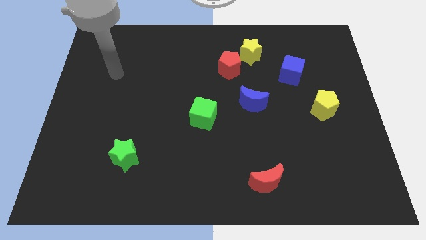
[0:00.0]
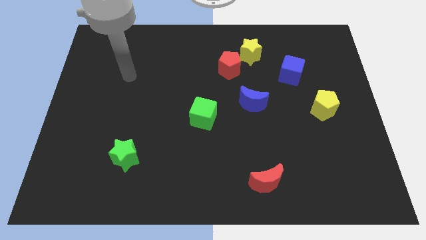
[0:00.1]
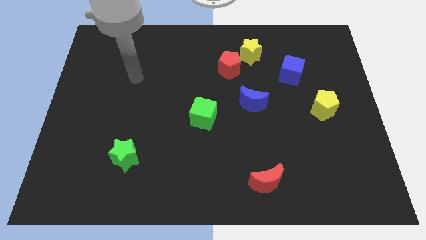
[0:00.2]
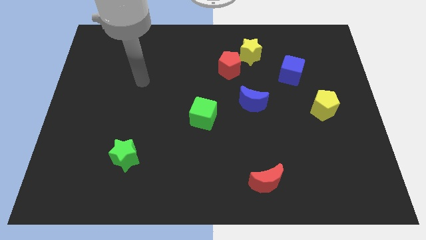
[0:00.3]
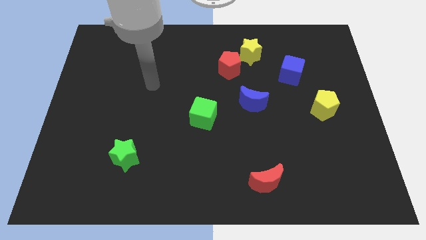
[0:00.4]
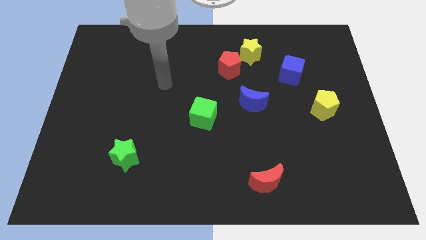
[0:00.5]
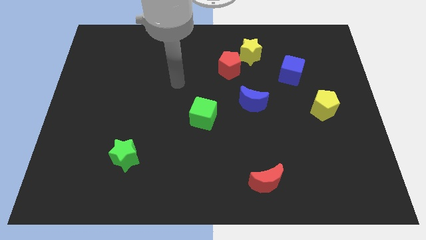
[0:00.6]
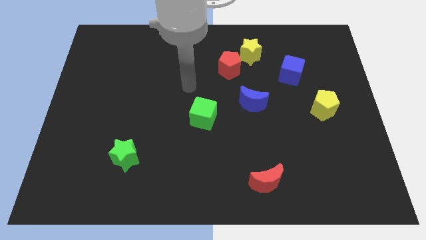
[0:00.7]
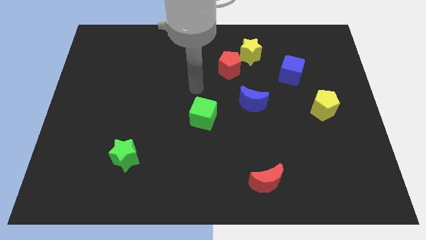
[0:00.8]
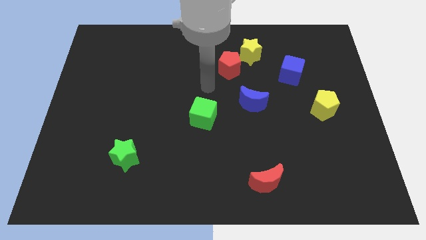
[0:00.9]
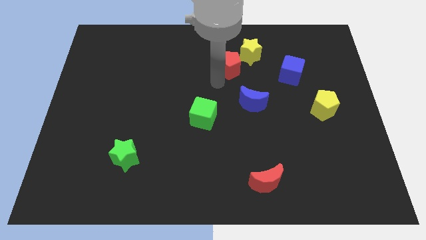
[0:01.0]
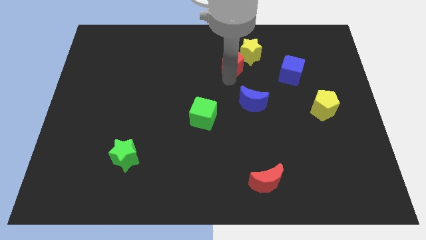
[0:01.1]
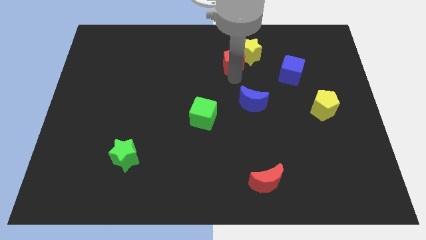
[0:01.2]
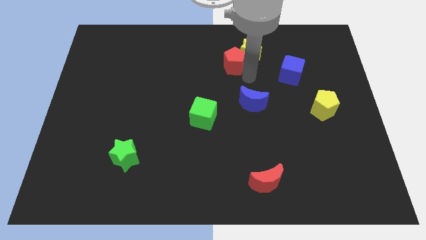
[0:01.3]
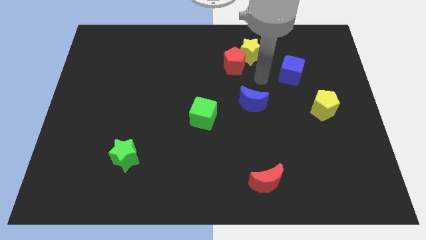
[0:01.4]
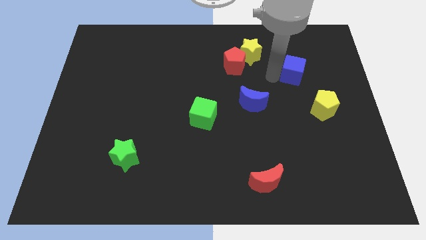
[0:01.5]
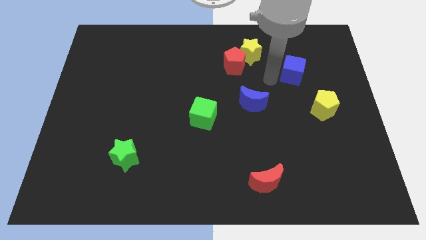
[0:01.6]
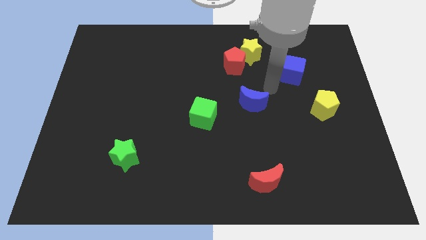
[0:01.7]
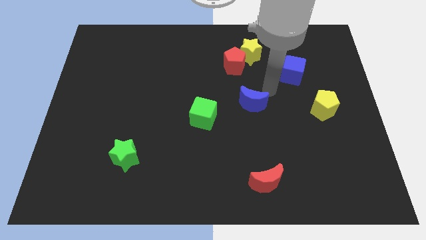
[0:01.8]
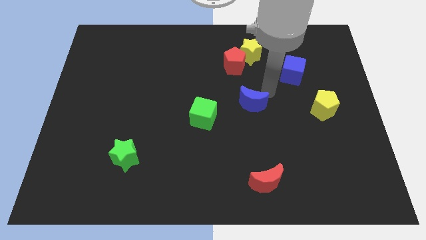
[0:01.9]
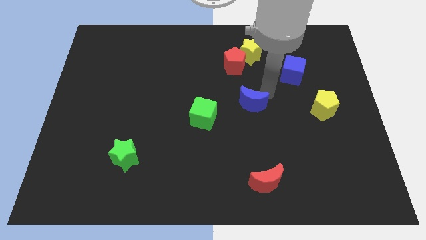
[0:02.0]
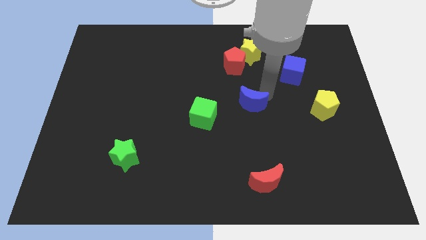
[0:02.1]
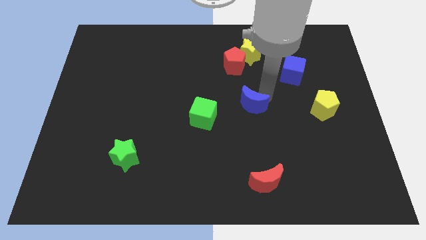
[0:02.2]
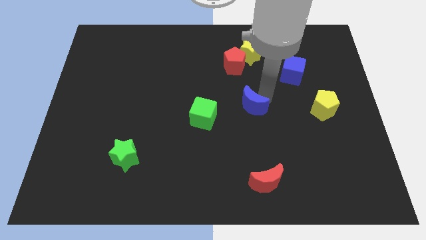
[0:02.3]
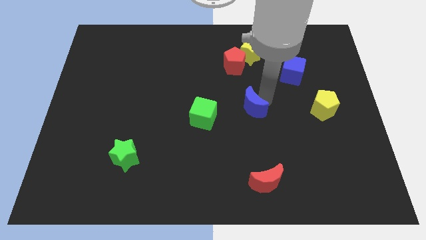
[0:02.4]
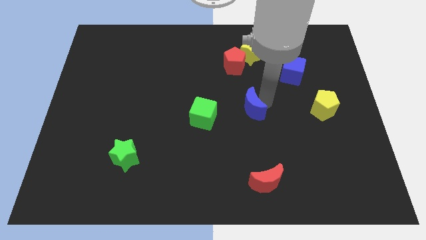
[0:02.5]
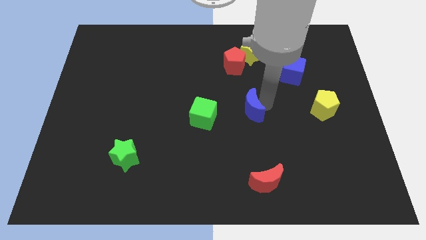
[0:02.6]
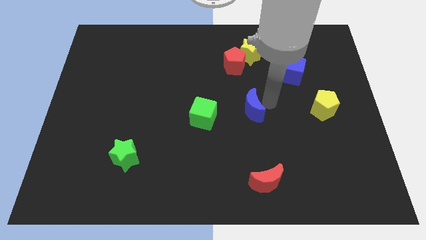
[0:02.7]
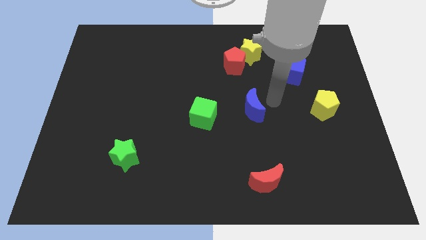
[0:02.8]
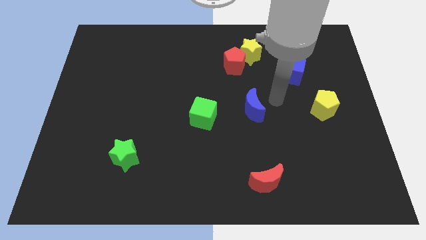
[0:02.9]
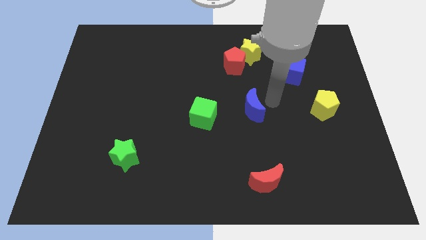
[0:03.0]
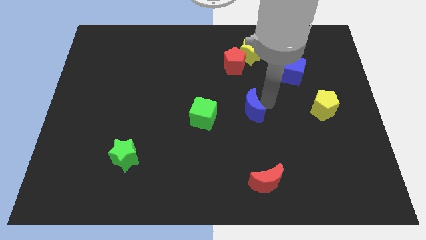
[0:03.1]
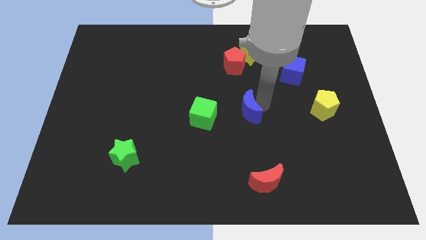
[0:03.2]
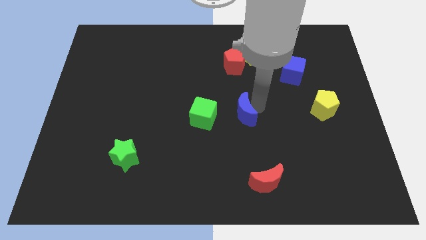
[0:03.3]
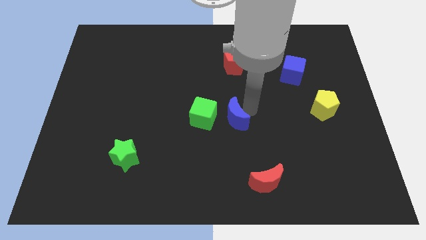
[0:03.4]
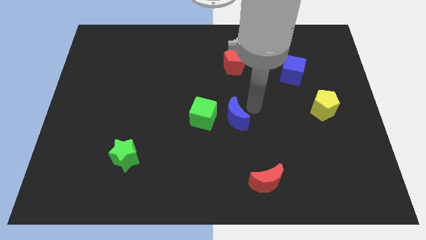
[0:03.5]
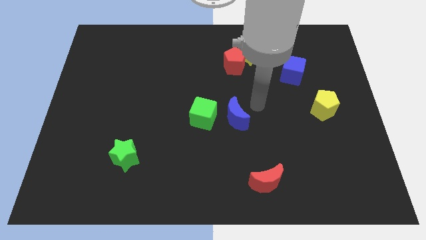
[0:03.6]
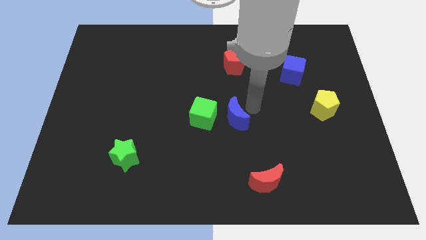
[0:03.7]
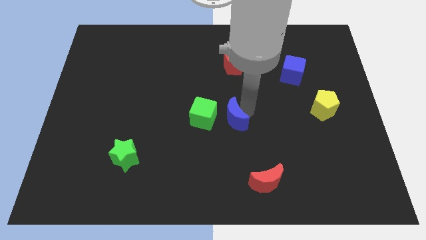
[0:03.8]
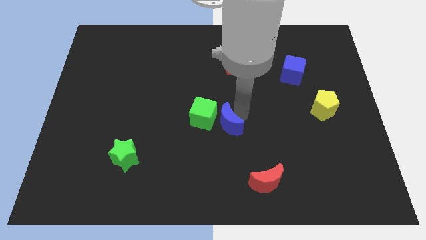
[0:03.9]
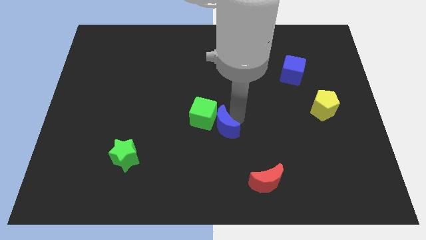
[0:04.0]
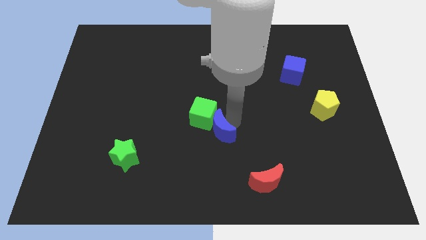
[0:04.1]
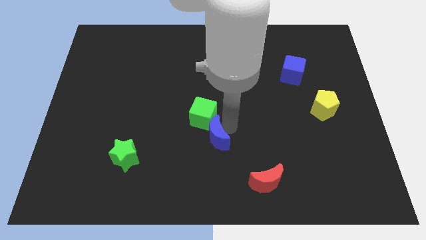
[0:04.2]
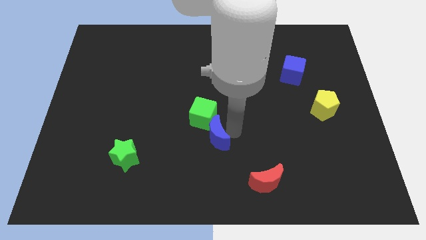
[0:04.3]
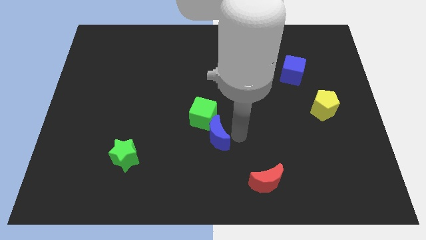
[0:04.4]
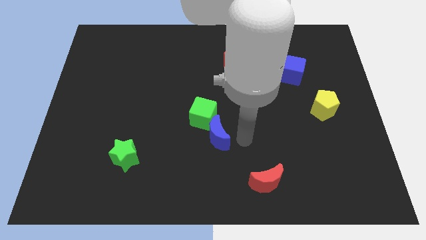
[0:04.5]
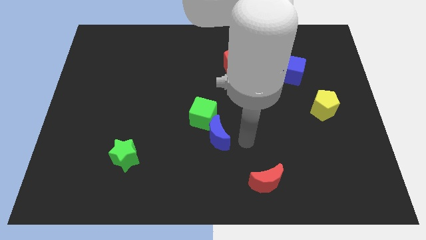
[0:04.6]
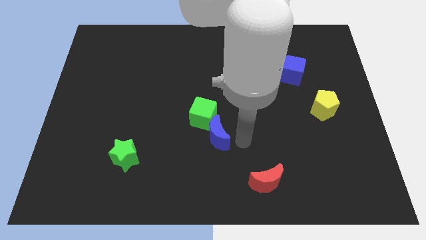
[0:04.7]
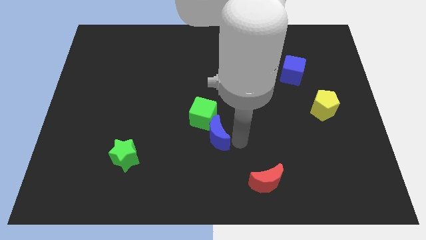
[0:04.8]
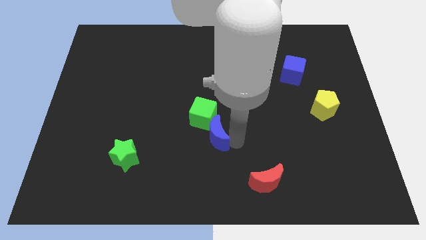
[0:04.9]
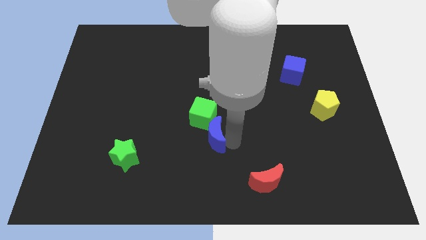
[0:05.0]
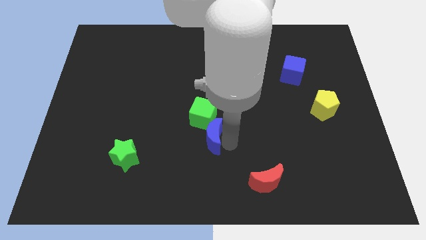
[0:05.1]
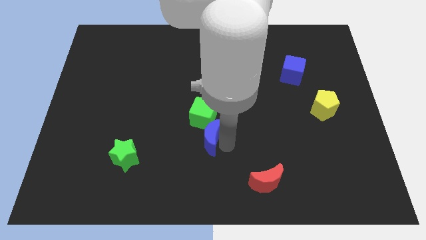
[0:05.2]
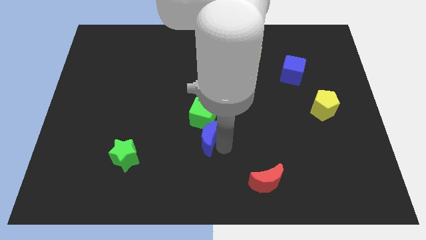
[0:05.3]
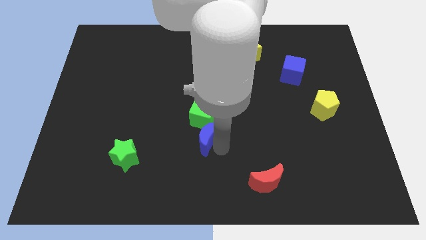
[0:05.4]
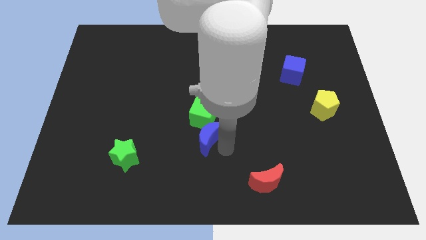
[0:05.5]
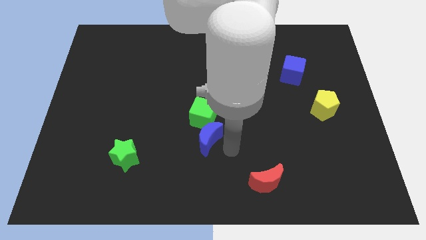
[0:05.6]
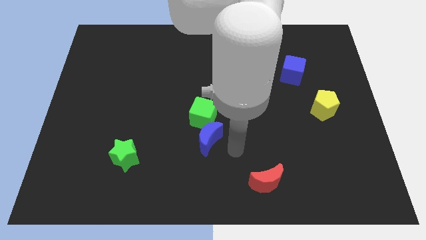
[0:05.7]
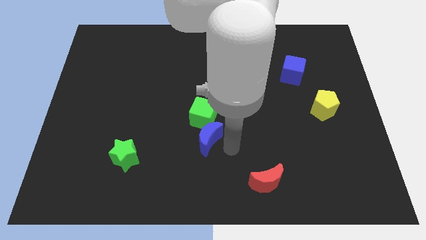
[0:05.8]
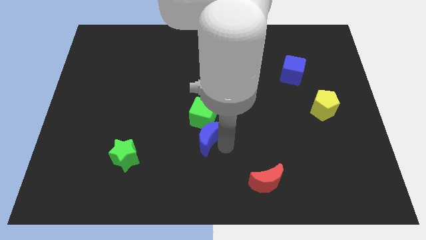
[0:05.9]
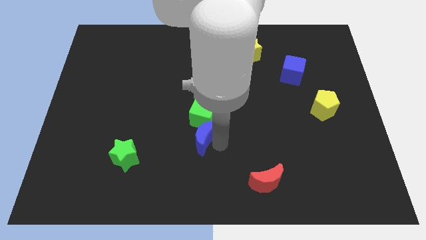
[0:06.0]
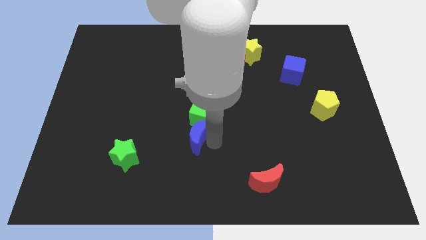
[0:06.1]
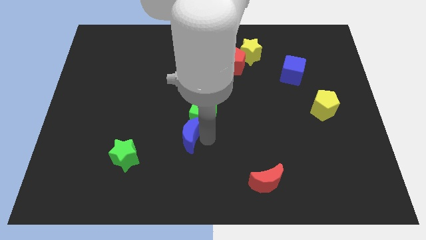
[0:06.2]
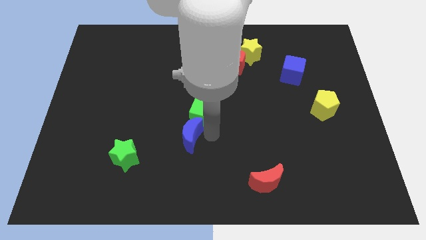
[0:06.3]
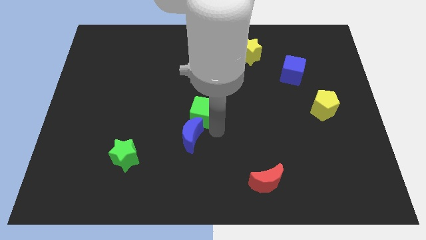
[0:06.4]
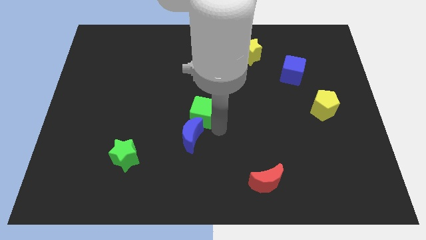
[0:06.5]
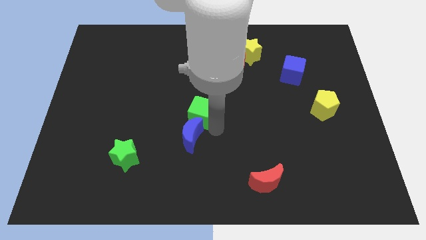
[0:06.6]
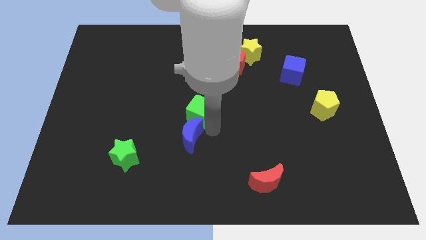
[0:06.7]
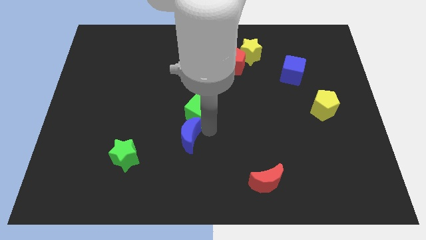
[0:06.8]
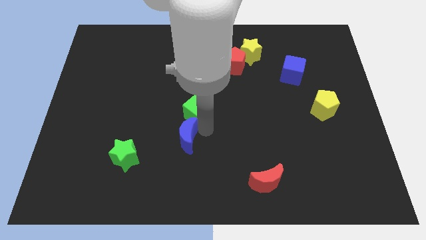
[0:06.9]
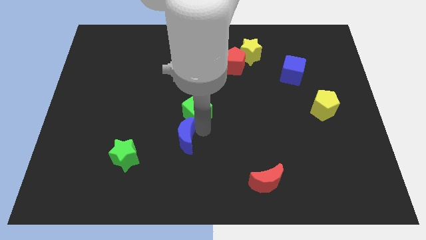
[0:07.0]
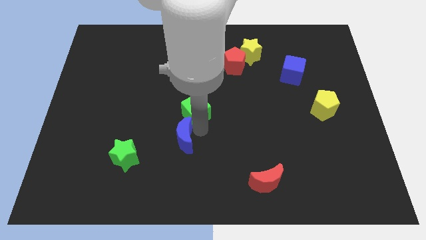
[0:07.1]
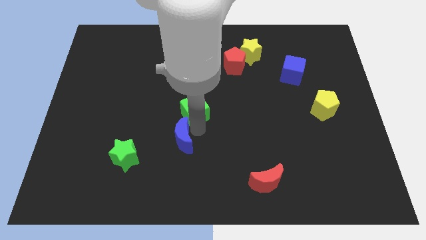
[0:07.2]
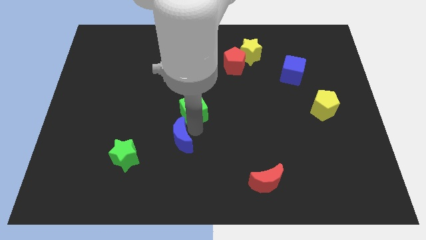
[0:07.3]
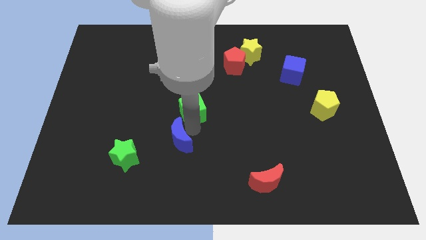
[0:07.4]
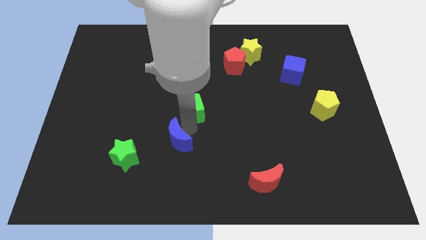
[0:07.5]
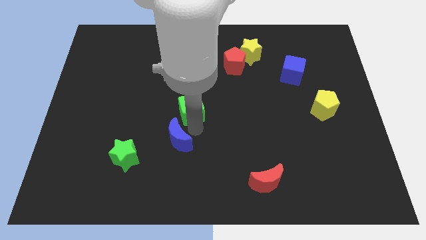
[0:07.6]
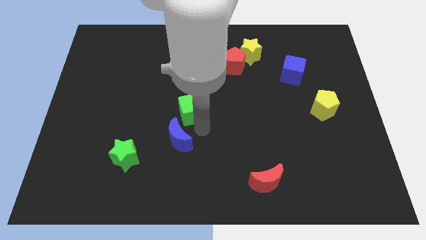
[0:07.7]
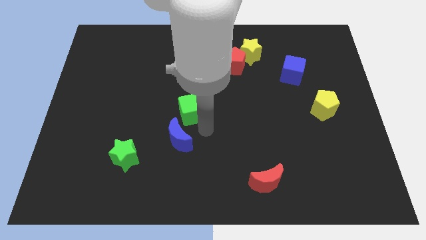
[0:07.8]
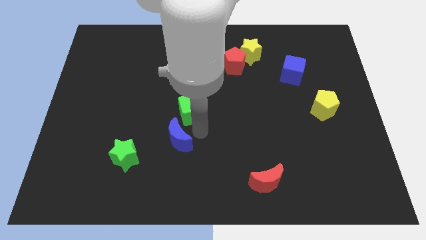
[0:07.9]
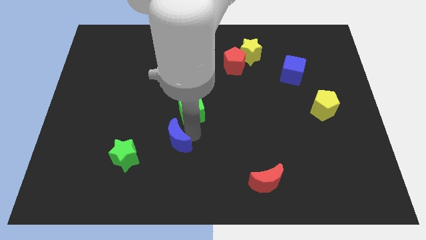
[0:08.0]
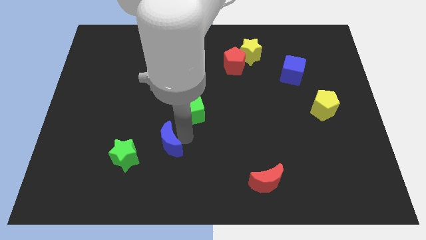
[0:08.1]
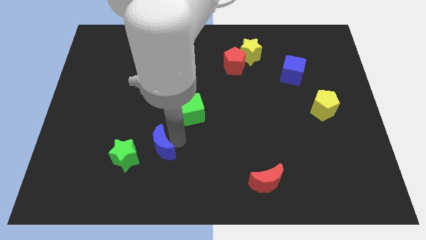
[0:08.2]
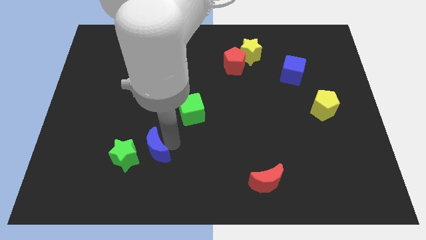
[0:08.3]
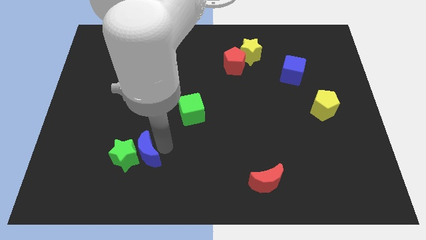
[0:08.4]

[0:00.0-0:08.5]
move the blue moon towards the green star
